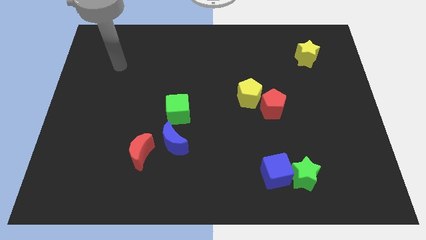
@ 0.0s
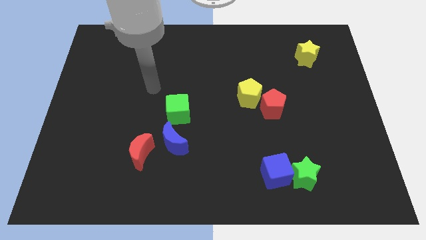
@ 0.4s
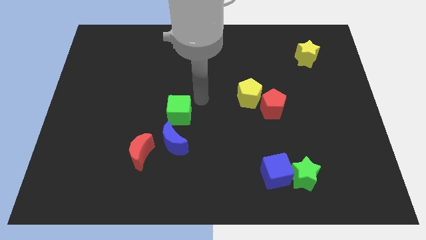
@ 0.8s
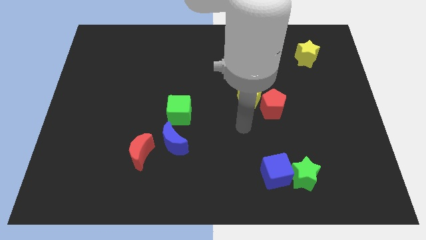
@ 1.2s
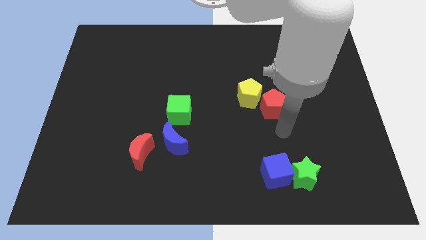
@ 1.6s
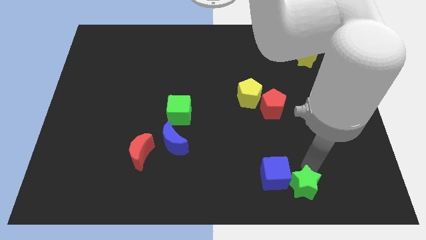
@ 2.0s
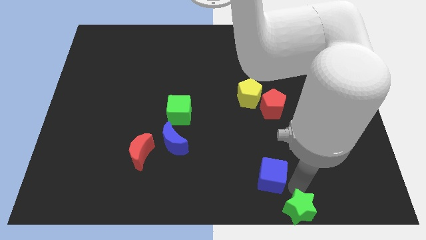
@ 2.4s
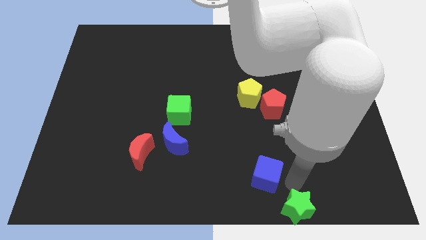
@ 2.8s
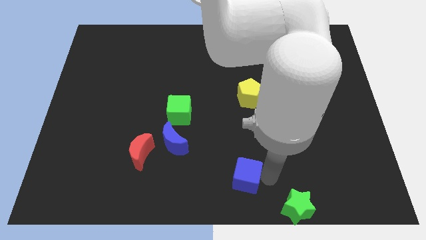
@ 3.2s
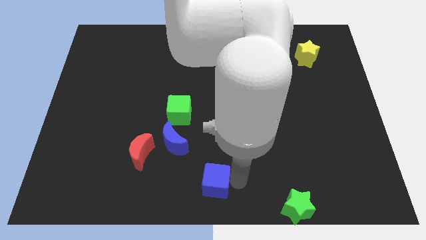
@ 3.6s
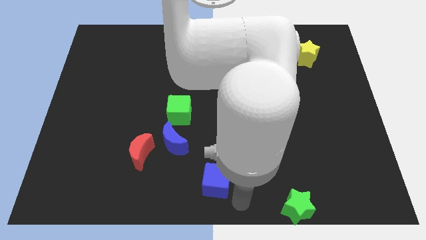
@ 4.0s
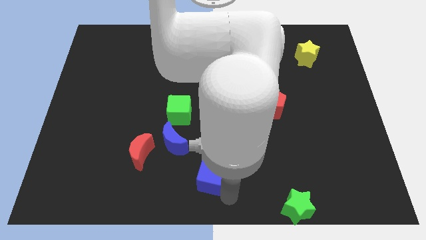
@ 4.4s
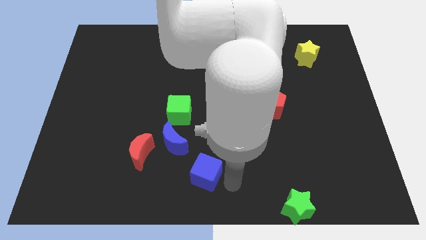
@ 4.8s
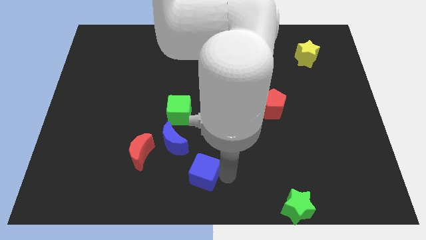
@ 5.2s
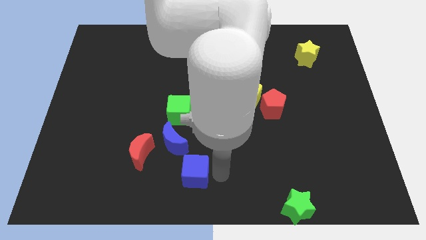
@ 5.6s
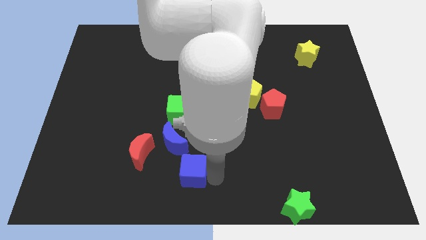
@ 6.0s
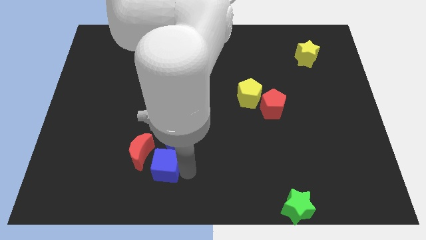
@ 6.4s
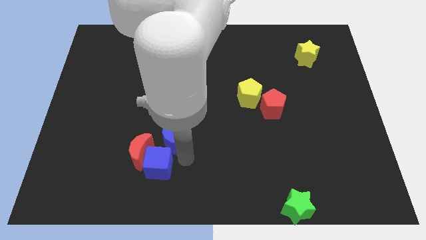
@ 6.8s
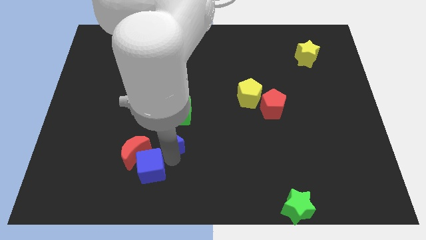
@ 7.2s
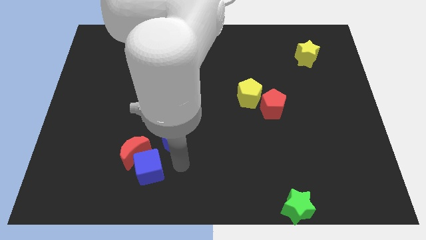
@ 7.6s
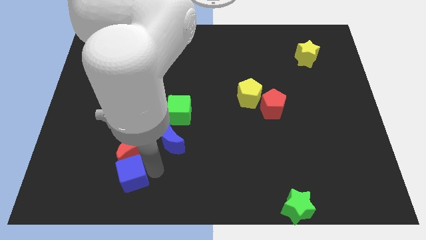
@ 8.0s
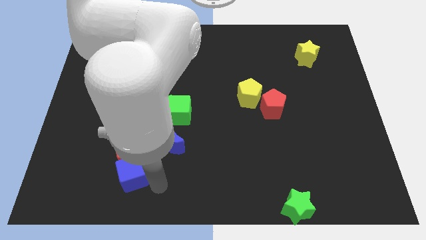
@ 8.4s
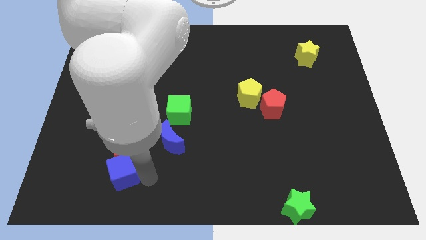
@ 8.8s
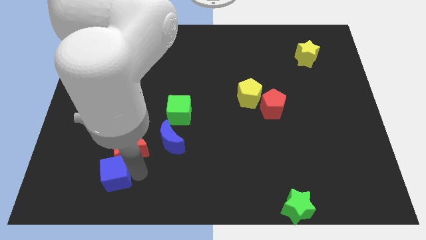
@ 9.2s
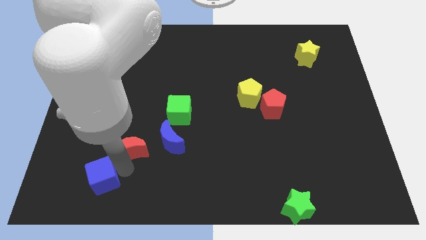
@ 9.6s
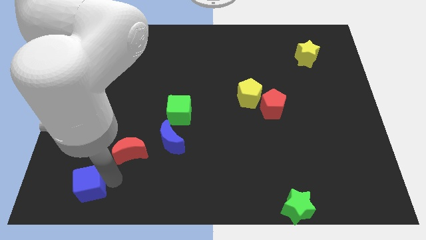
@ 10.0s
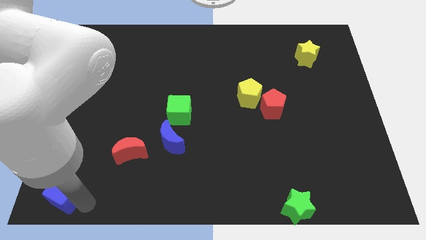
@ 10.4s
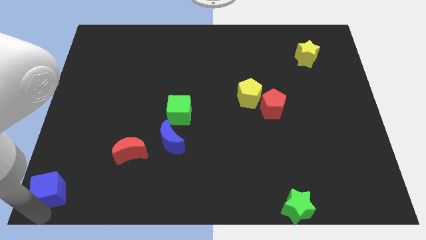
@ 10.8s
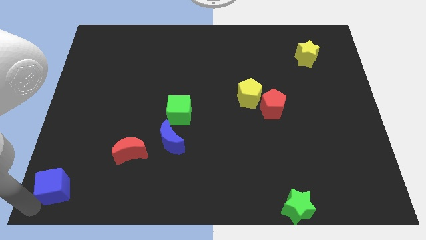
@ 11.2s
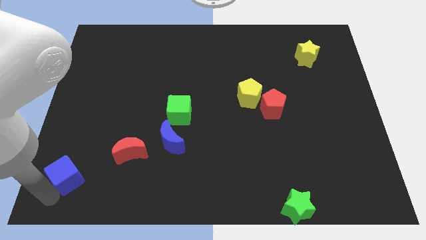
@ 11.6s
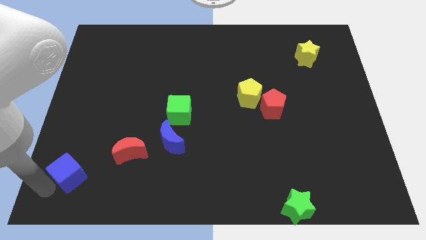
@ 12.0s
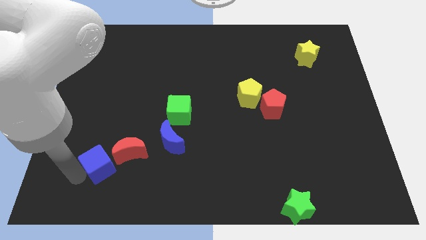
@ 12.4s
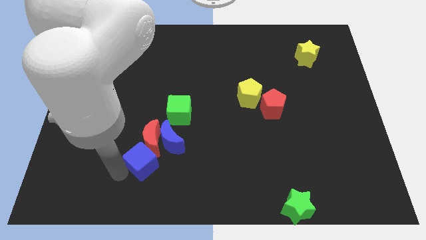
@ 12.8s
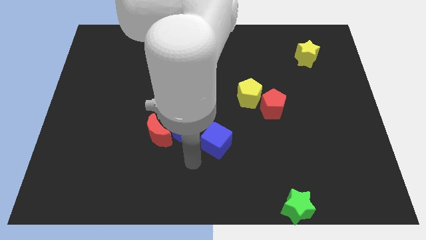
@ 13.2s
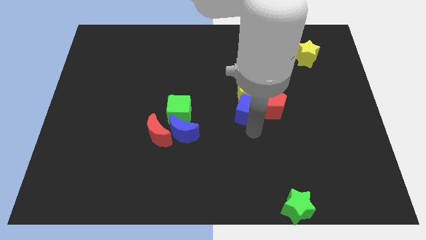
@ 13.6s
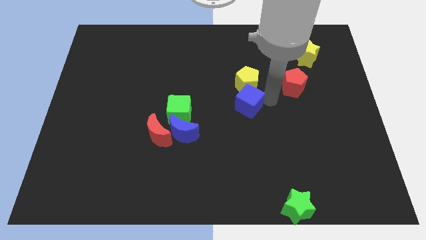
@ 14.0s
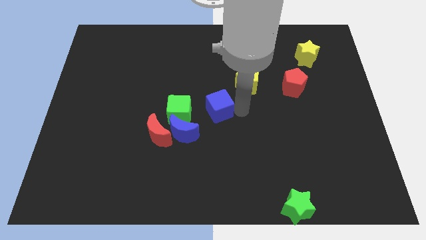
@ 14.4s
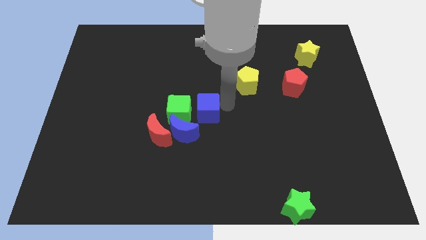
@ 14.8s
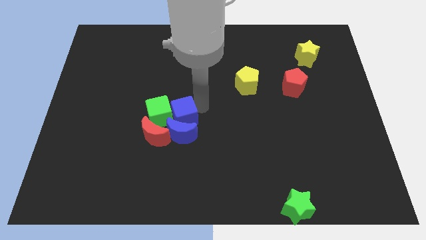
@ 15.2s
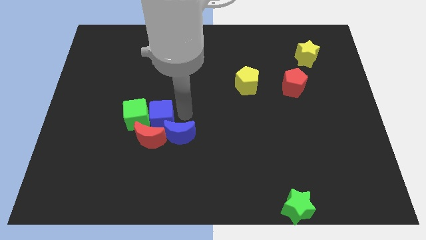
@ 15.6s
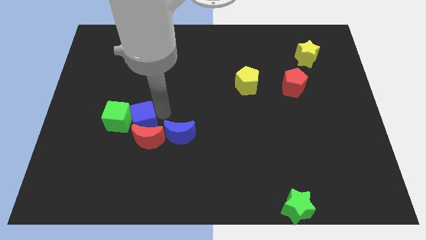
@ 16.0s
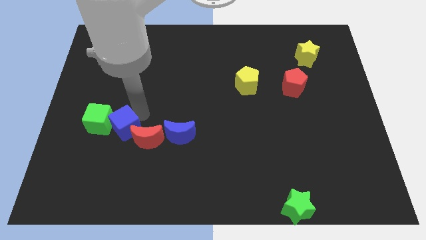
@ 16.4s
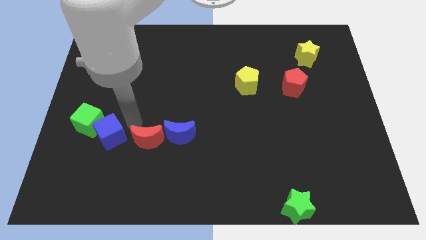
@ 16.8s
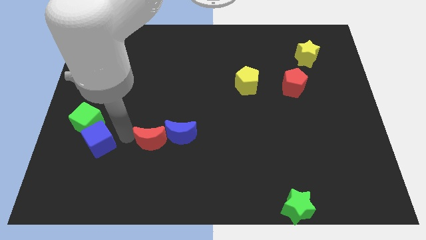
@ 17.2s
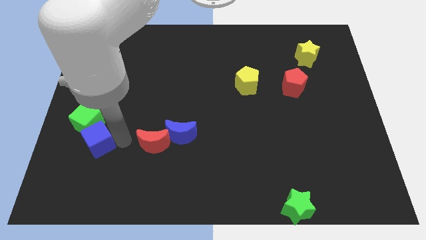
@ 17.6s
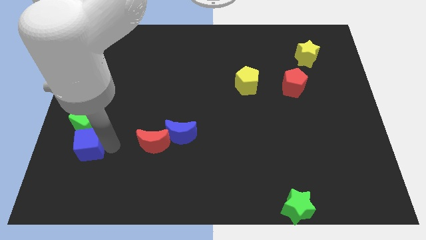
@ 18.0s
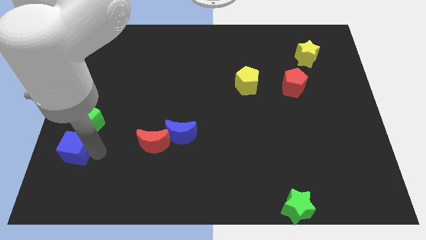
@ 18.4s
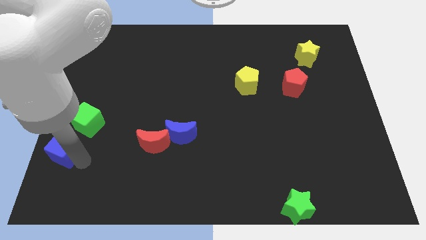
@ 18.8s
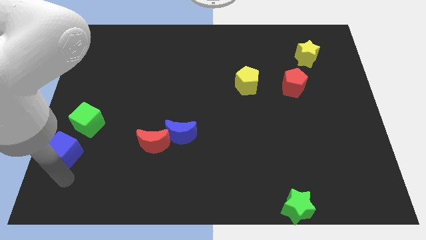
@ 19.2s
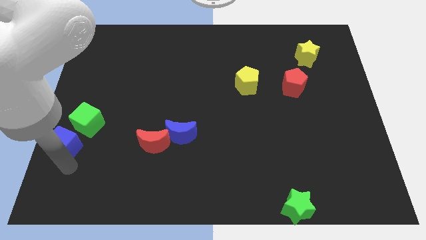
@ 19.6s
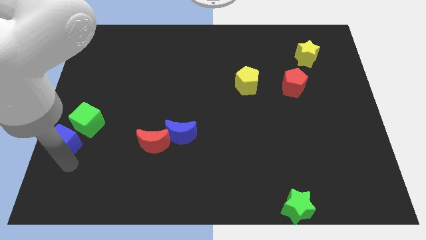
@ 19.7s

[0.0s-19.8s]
move the blue cube to the left side of the board
